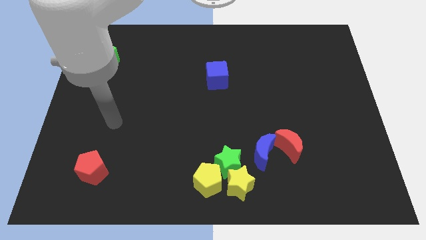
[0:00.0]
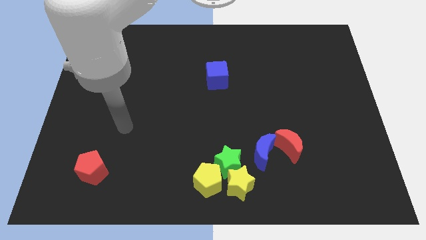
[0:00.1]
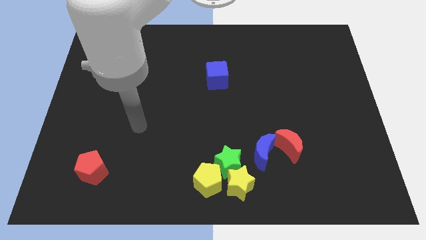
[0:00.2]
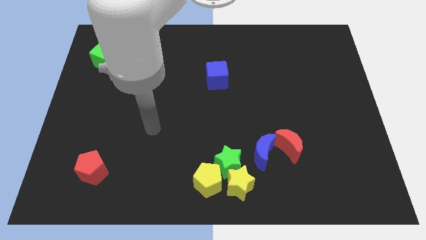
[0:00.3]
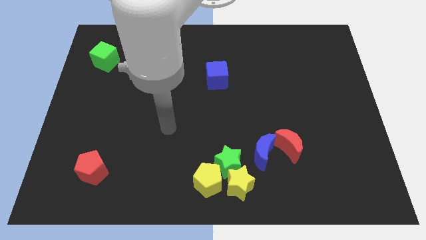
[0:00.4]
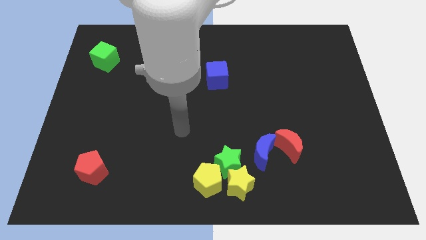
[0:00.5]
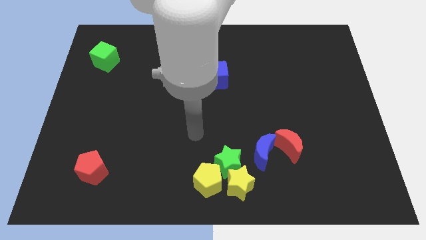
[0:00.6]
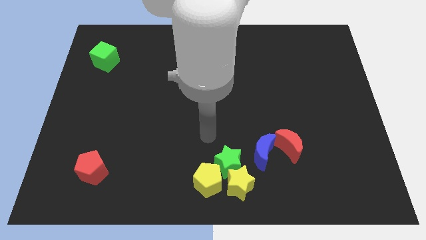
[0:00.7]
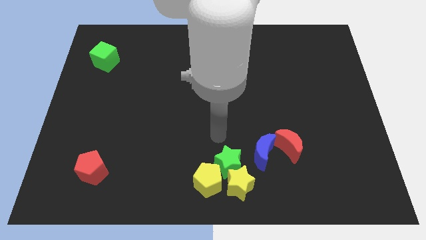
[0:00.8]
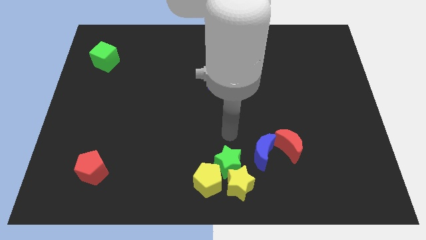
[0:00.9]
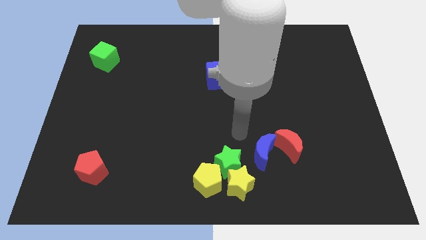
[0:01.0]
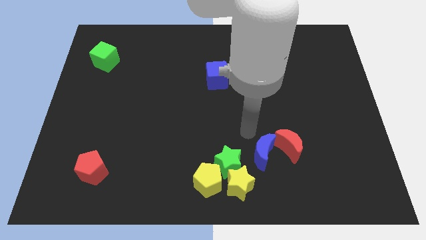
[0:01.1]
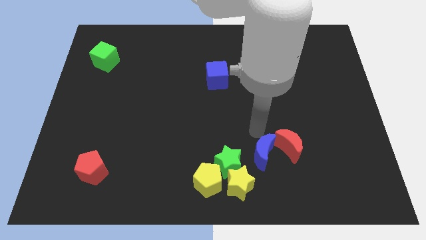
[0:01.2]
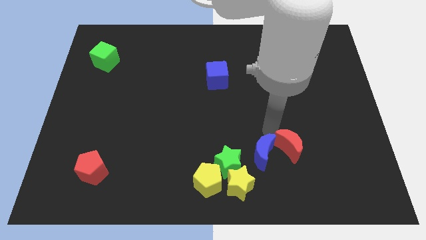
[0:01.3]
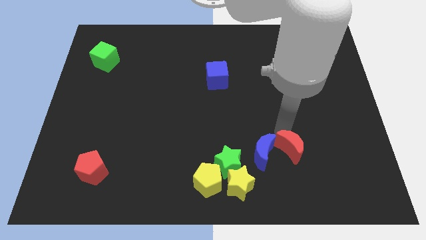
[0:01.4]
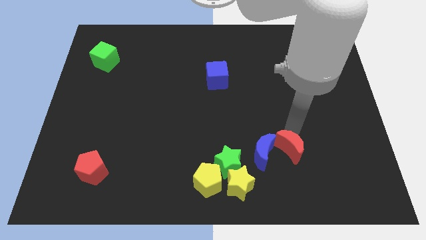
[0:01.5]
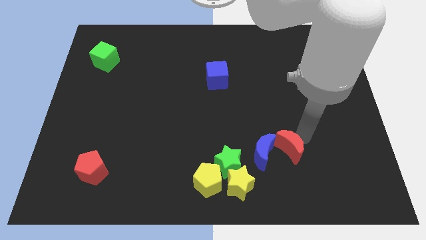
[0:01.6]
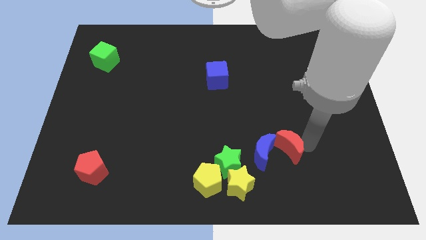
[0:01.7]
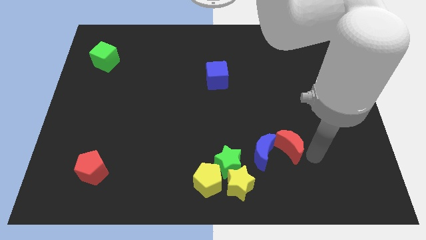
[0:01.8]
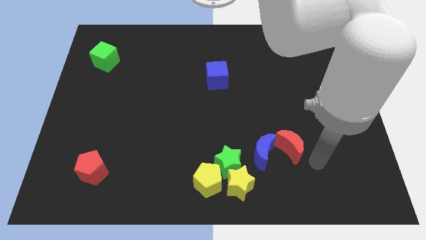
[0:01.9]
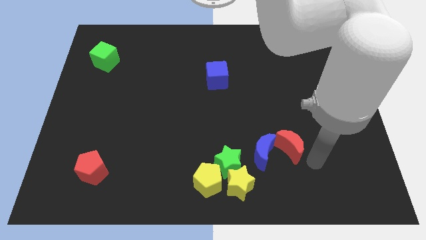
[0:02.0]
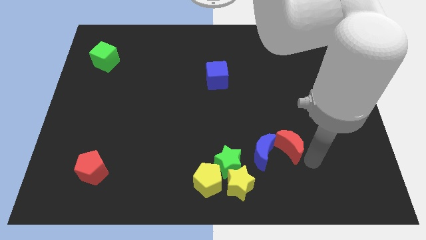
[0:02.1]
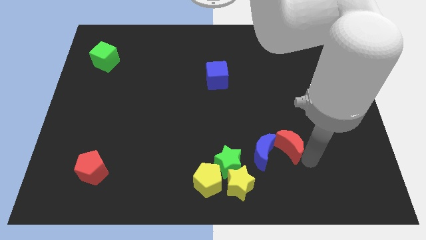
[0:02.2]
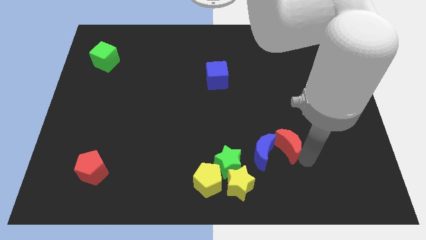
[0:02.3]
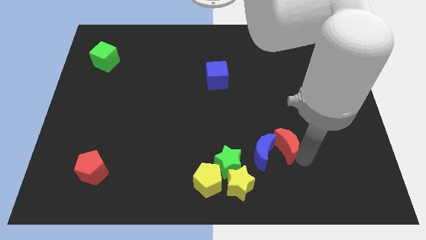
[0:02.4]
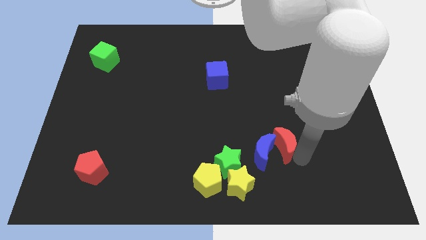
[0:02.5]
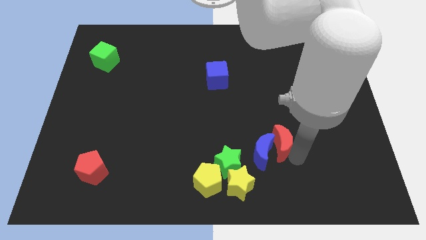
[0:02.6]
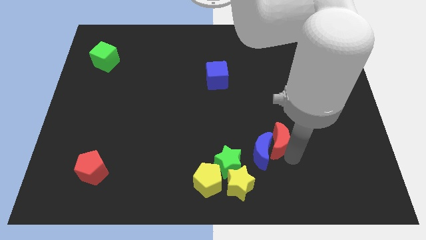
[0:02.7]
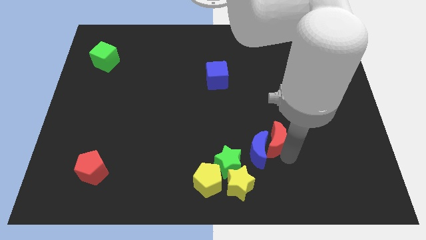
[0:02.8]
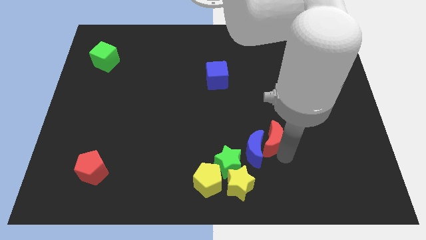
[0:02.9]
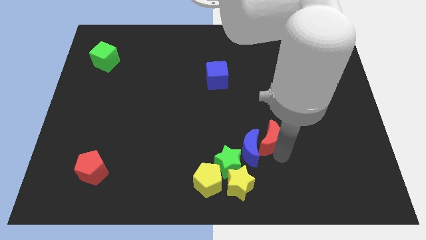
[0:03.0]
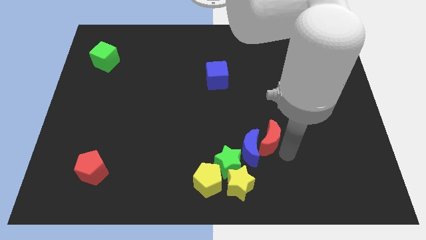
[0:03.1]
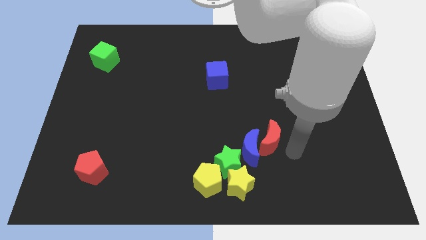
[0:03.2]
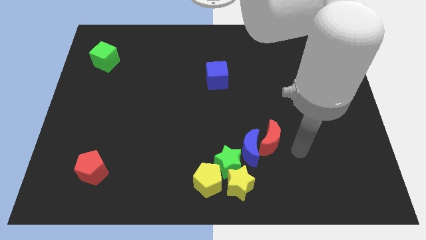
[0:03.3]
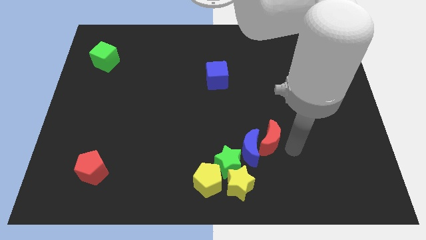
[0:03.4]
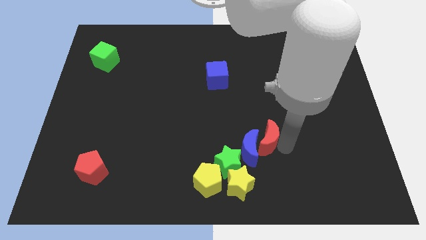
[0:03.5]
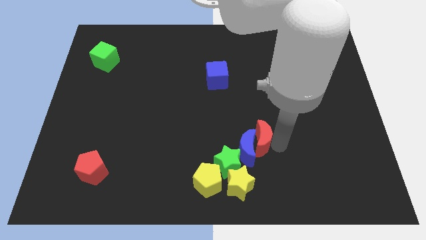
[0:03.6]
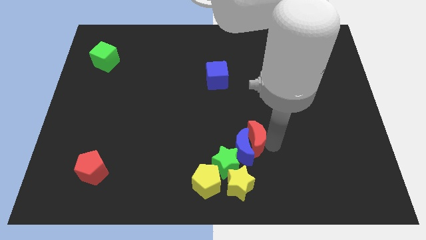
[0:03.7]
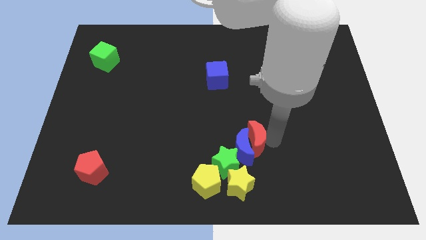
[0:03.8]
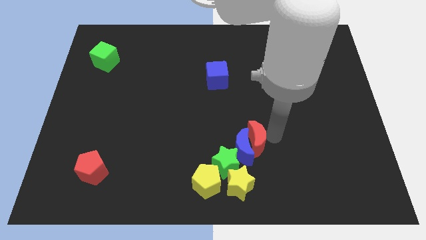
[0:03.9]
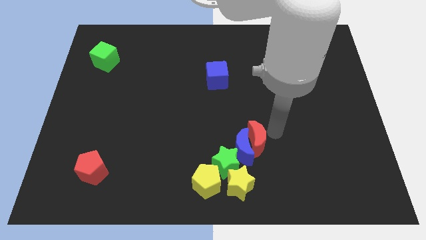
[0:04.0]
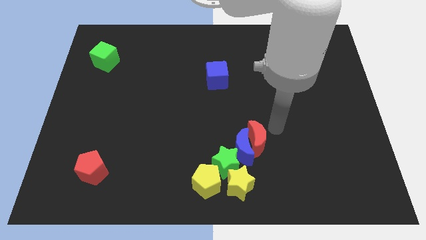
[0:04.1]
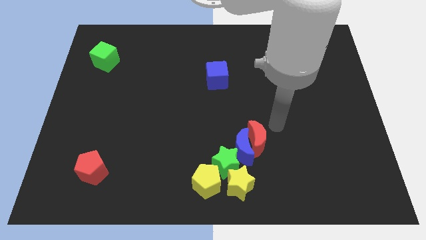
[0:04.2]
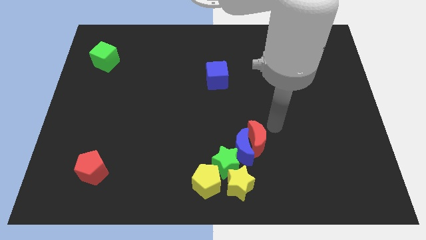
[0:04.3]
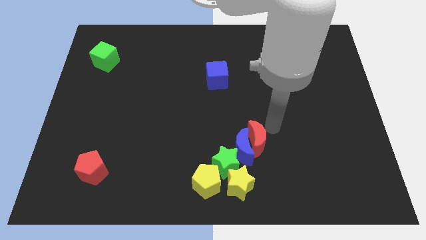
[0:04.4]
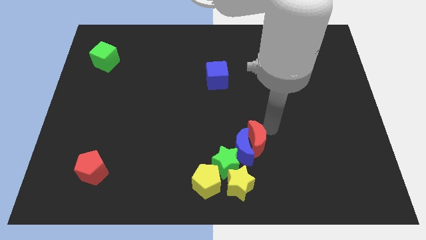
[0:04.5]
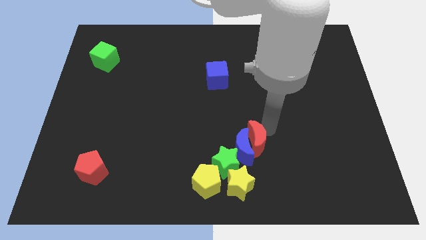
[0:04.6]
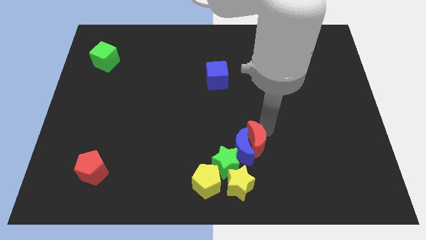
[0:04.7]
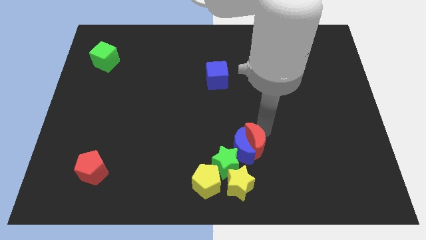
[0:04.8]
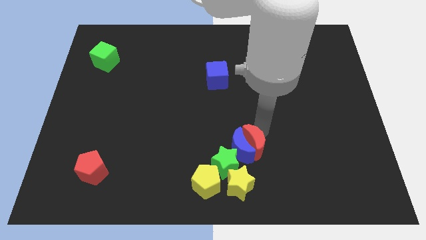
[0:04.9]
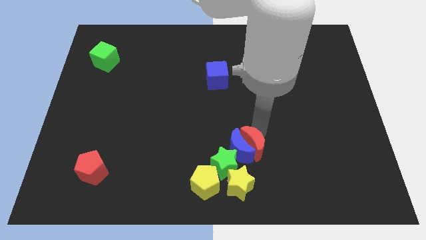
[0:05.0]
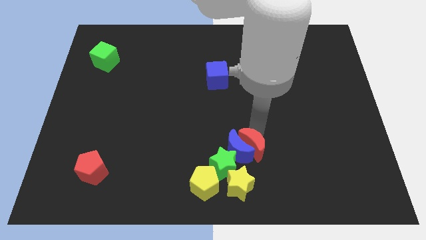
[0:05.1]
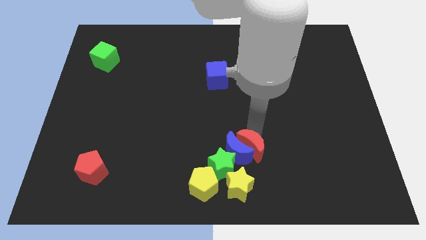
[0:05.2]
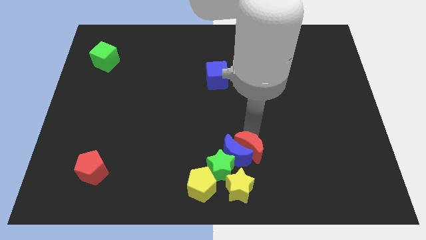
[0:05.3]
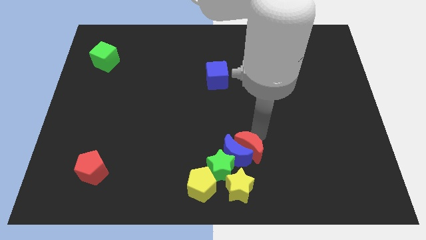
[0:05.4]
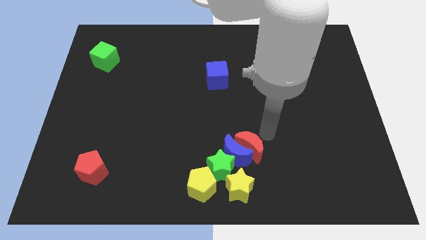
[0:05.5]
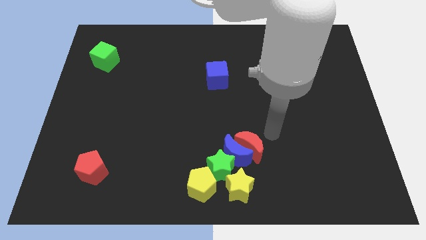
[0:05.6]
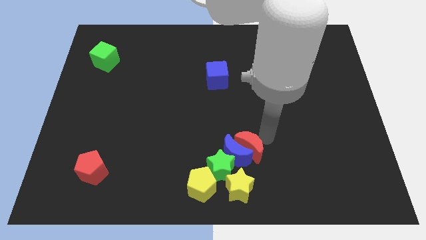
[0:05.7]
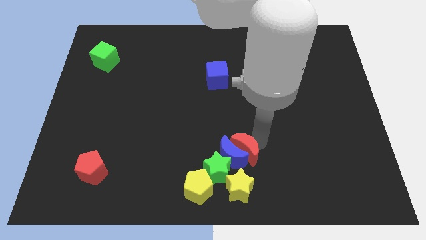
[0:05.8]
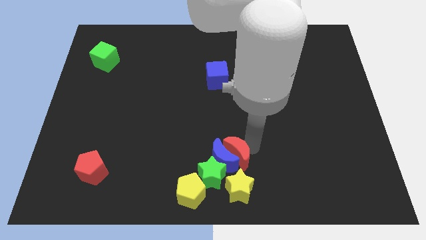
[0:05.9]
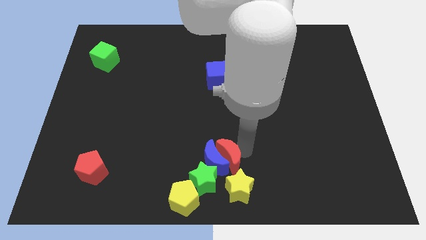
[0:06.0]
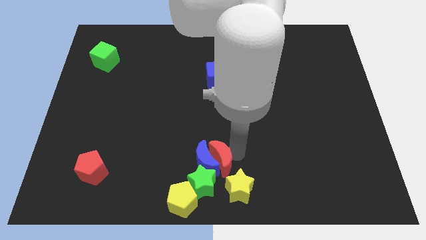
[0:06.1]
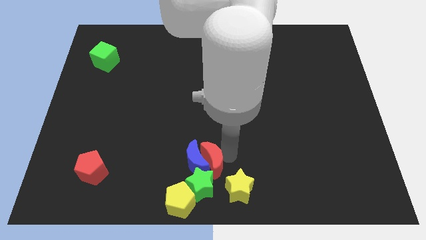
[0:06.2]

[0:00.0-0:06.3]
put the red moon next to the green star

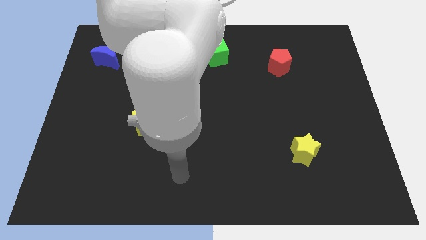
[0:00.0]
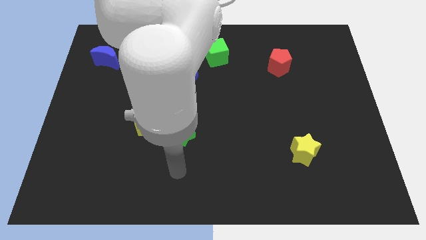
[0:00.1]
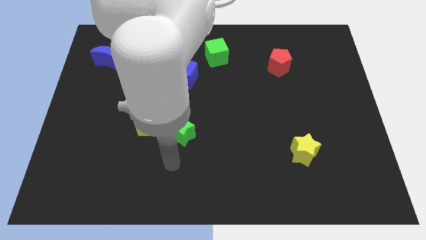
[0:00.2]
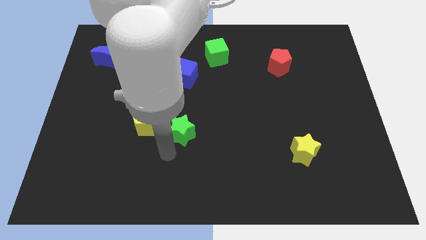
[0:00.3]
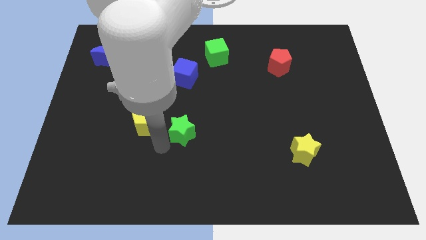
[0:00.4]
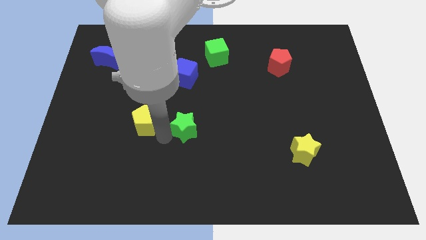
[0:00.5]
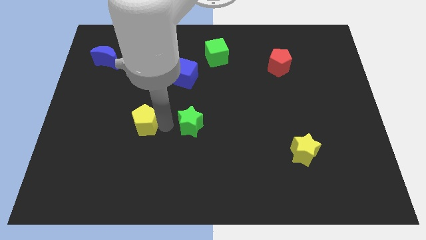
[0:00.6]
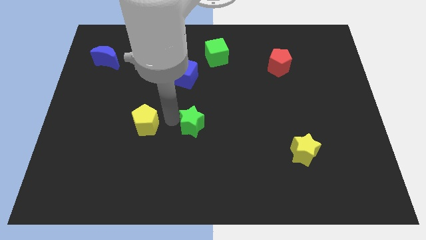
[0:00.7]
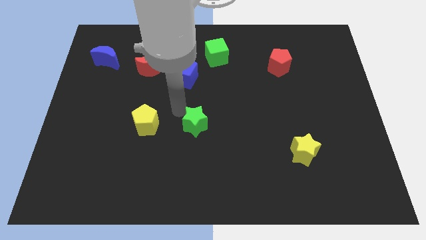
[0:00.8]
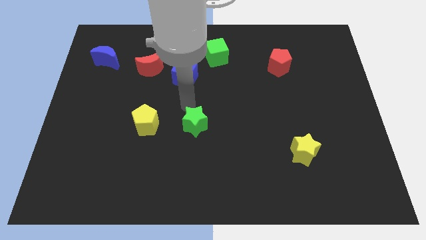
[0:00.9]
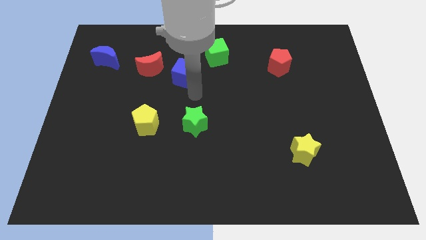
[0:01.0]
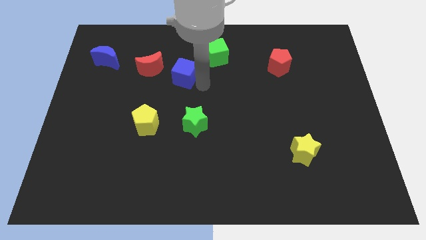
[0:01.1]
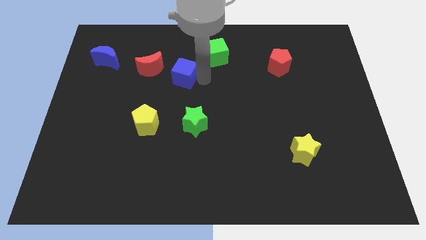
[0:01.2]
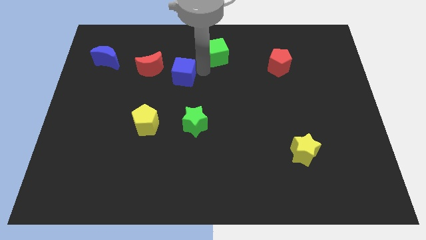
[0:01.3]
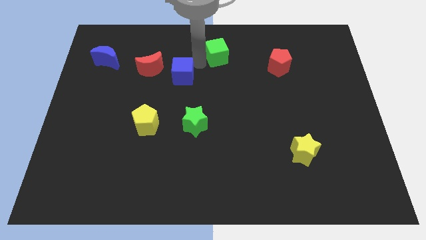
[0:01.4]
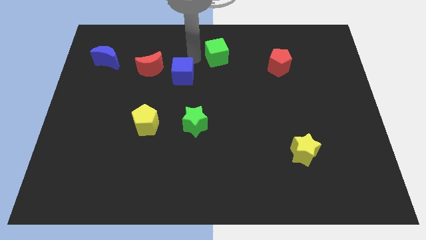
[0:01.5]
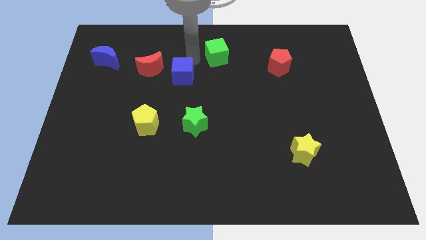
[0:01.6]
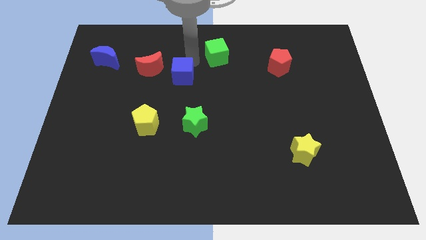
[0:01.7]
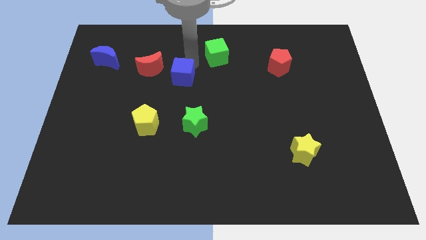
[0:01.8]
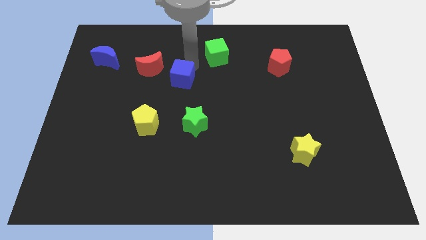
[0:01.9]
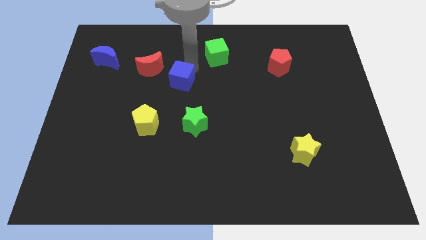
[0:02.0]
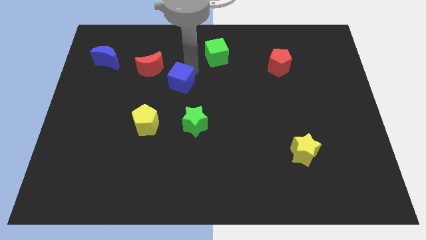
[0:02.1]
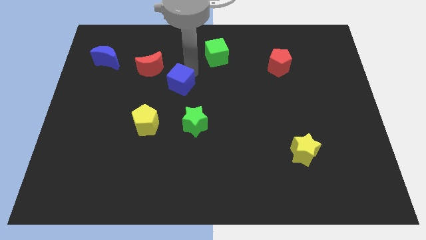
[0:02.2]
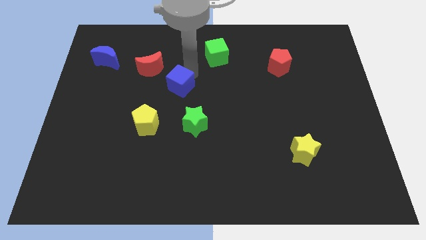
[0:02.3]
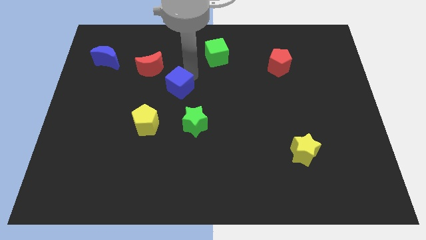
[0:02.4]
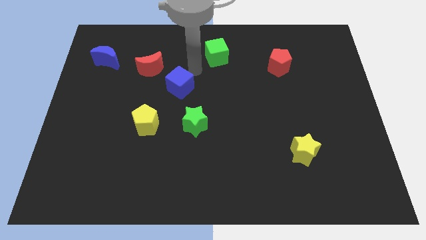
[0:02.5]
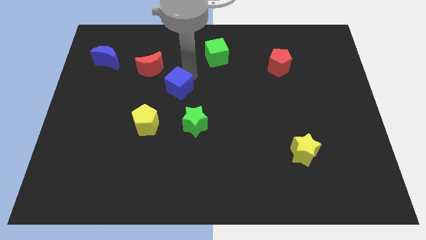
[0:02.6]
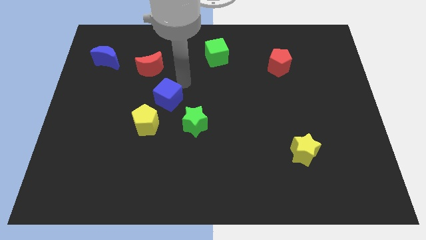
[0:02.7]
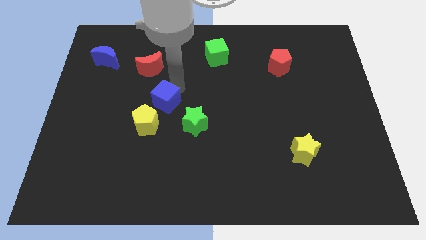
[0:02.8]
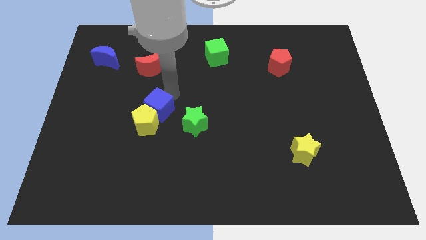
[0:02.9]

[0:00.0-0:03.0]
push the blue cube towards the yellow pentagon
